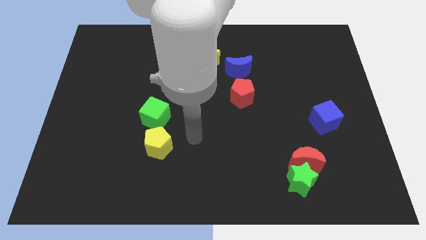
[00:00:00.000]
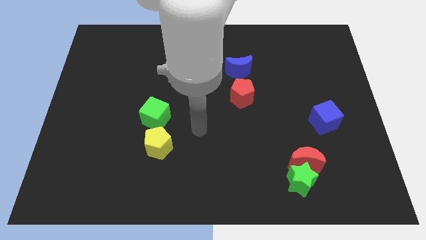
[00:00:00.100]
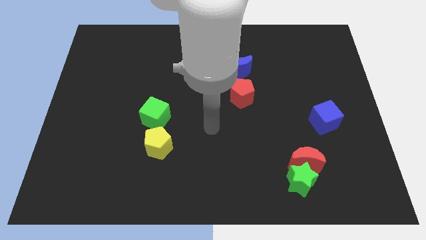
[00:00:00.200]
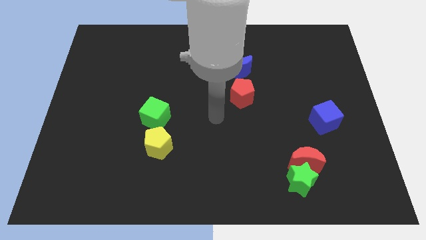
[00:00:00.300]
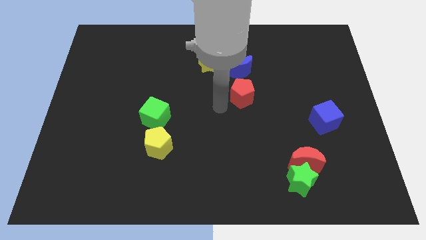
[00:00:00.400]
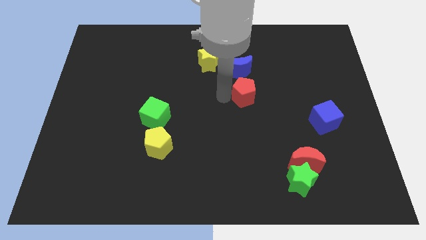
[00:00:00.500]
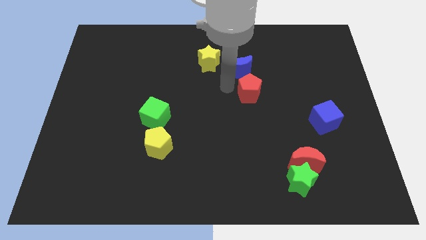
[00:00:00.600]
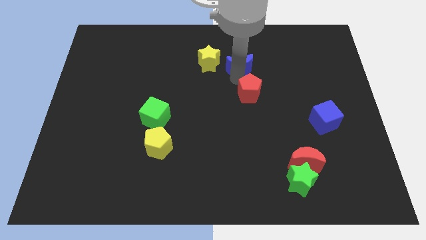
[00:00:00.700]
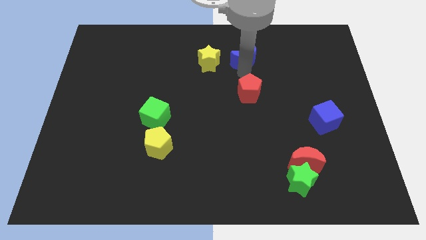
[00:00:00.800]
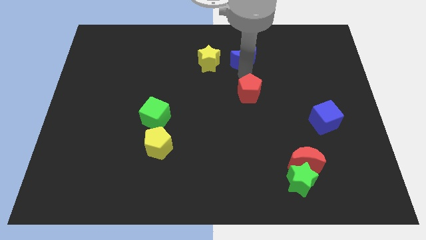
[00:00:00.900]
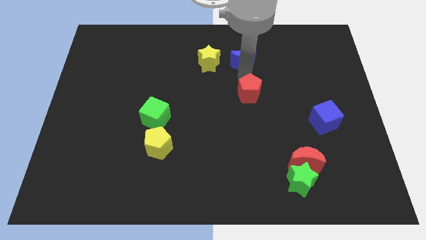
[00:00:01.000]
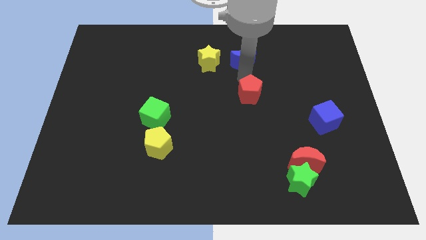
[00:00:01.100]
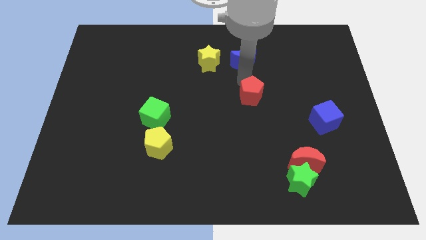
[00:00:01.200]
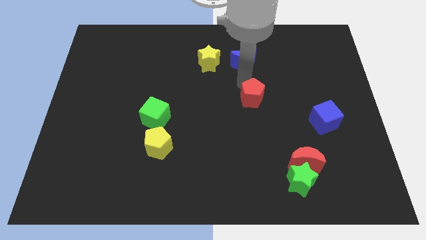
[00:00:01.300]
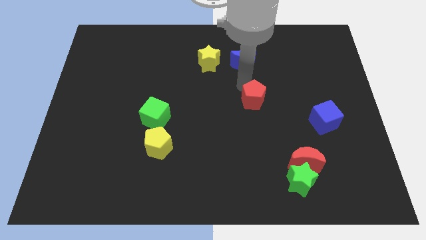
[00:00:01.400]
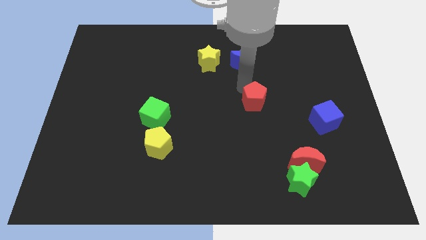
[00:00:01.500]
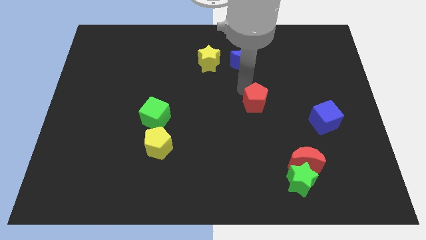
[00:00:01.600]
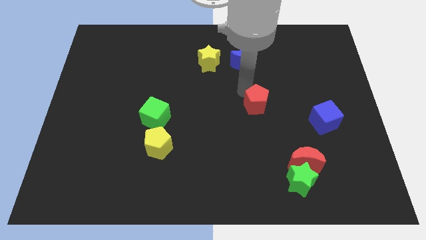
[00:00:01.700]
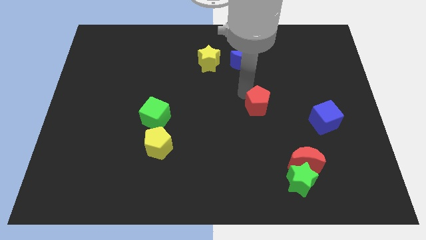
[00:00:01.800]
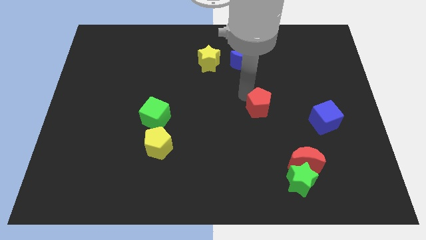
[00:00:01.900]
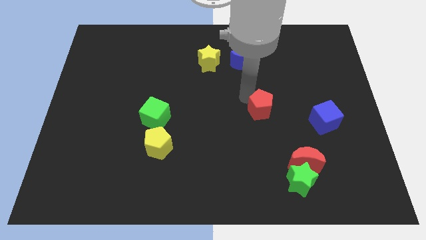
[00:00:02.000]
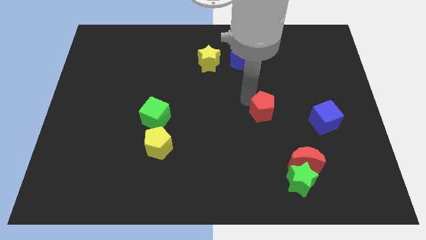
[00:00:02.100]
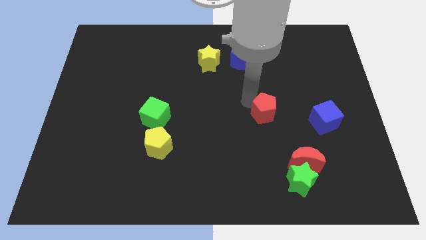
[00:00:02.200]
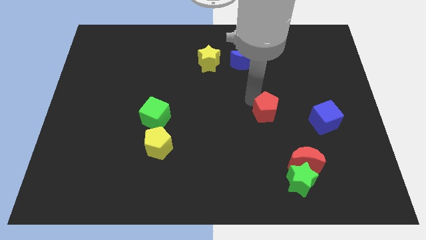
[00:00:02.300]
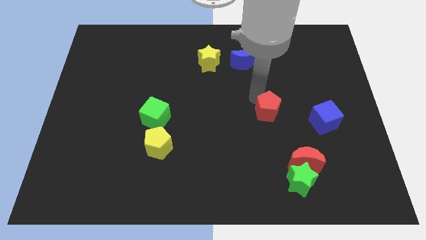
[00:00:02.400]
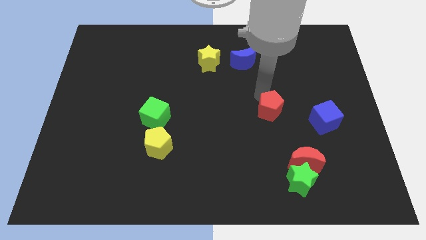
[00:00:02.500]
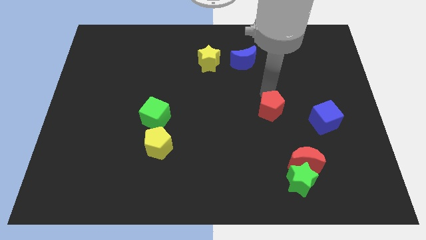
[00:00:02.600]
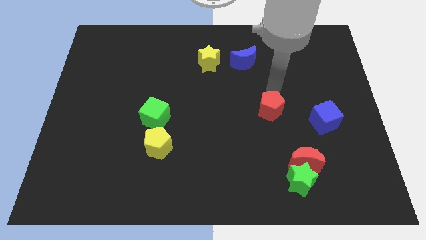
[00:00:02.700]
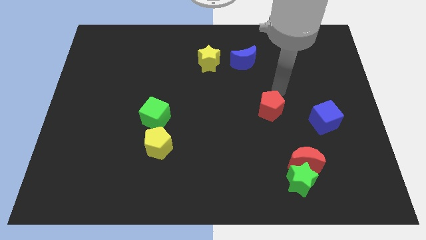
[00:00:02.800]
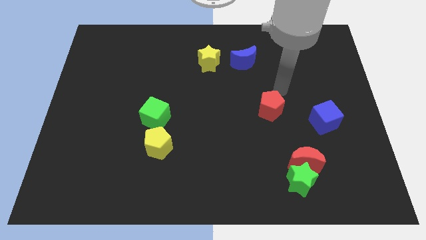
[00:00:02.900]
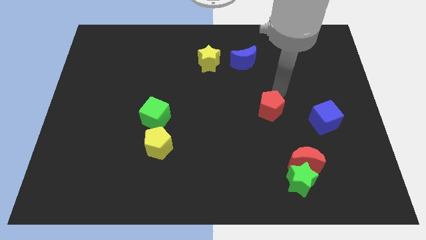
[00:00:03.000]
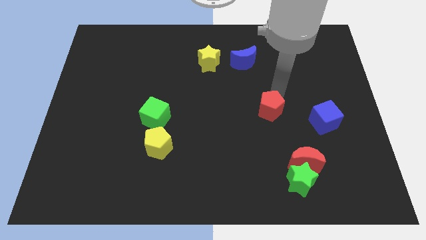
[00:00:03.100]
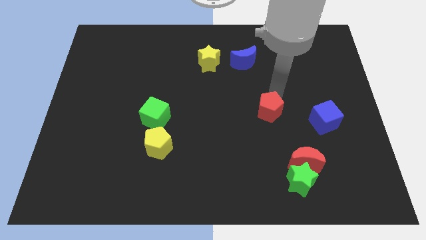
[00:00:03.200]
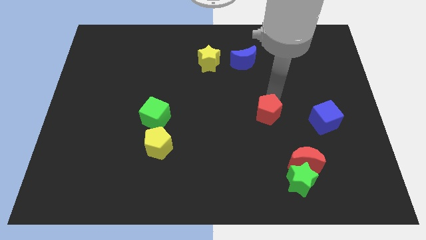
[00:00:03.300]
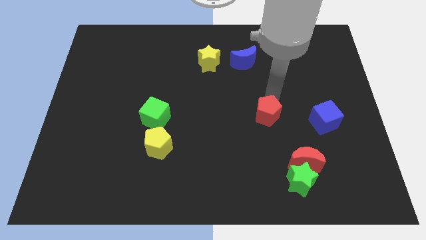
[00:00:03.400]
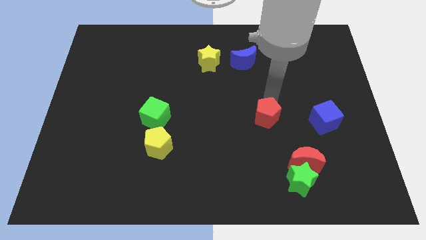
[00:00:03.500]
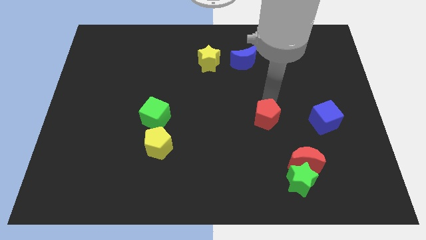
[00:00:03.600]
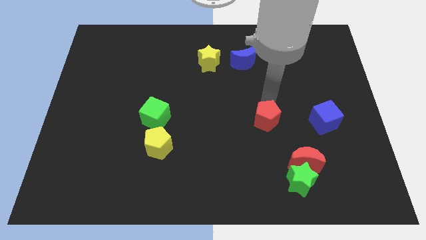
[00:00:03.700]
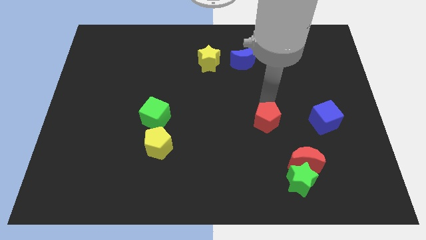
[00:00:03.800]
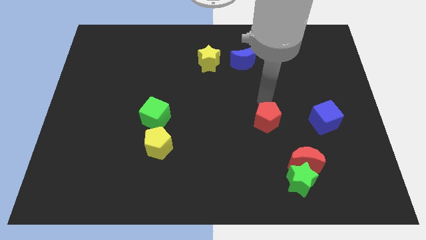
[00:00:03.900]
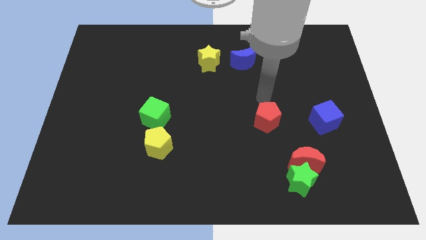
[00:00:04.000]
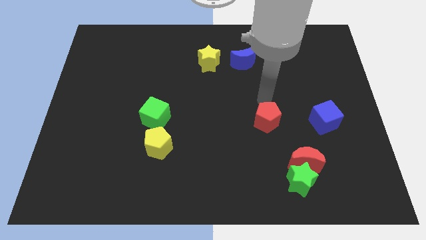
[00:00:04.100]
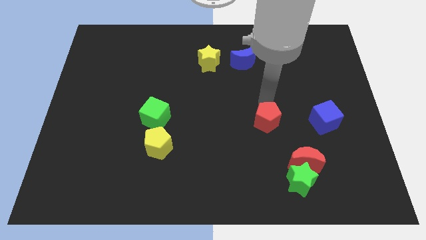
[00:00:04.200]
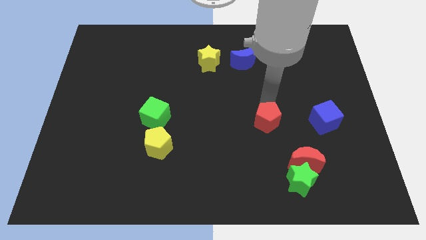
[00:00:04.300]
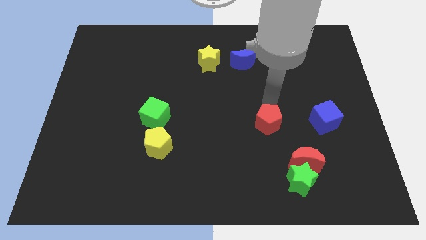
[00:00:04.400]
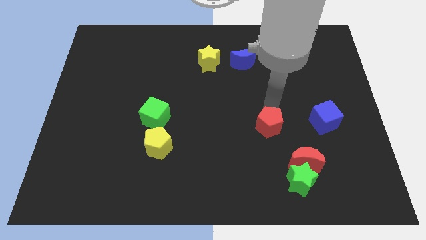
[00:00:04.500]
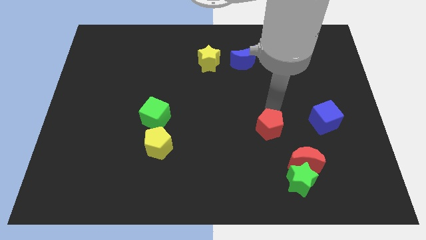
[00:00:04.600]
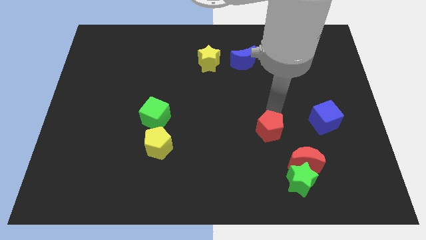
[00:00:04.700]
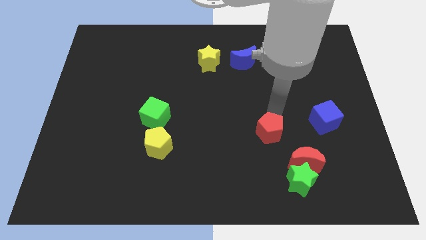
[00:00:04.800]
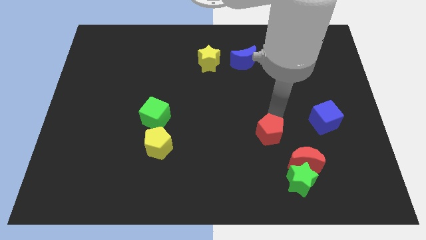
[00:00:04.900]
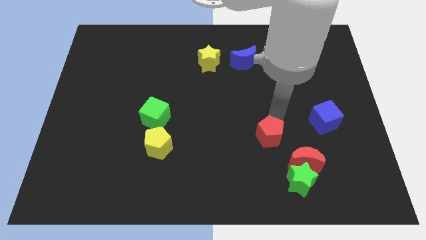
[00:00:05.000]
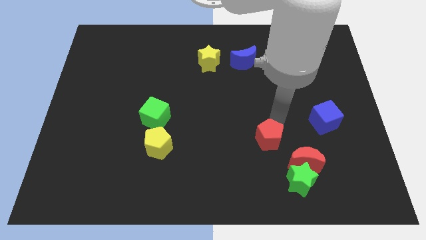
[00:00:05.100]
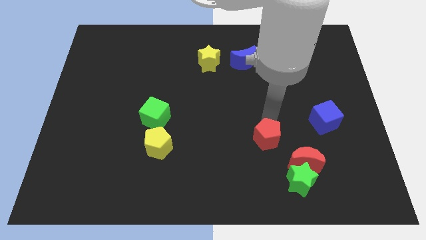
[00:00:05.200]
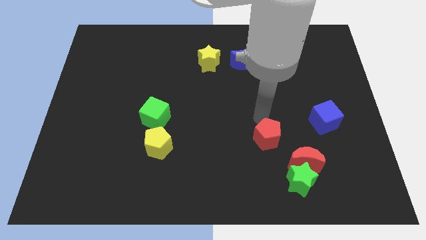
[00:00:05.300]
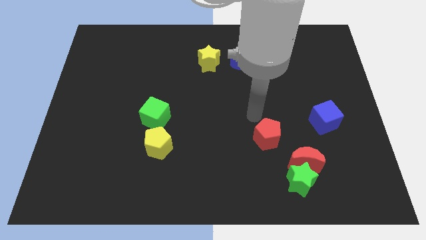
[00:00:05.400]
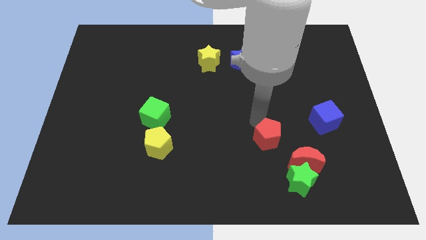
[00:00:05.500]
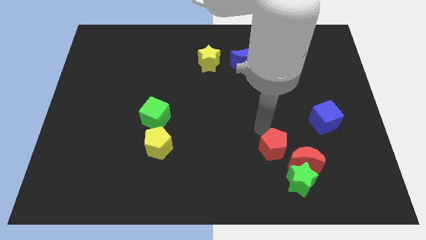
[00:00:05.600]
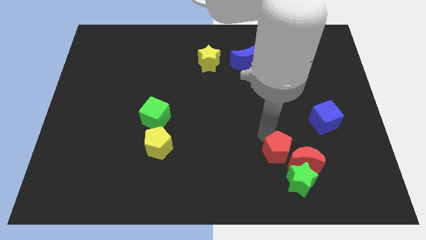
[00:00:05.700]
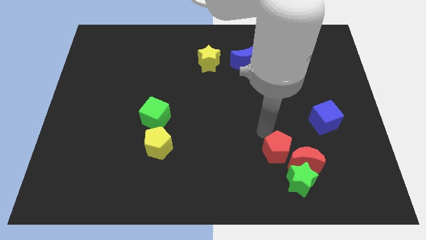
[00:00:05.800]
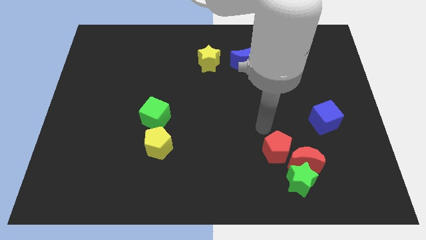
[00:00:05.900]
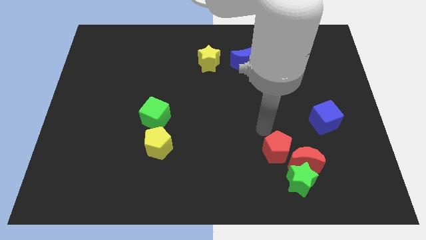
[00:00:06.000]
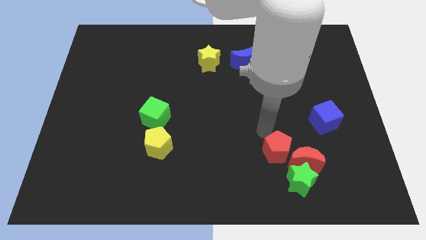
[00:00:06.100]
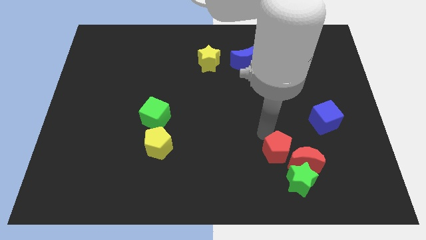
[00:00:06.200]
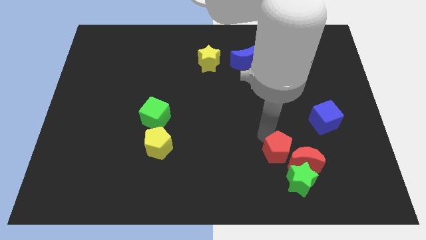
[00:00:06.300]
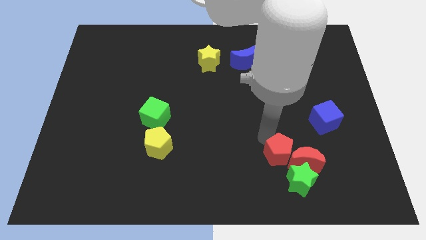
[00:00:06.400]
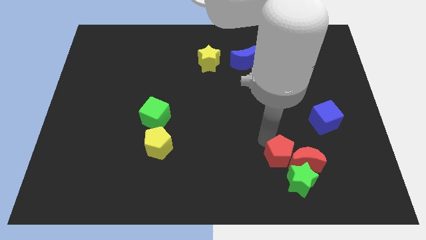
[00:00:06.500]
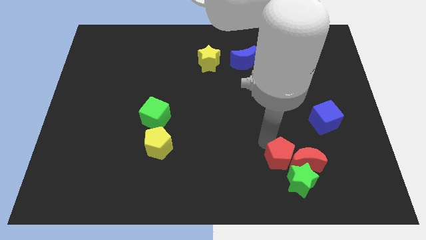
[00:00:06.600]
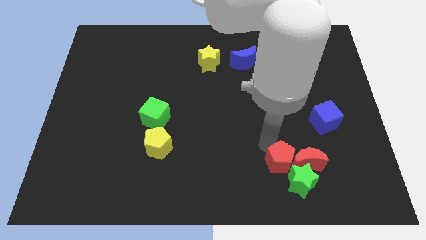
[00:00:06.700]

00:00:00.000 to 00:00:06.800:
push the red pentagon towards the green star

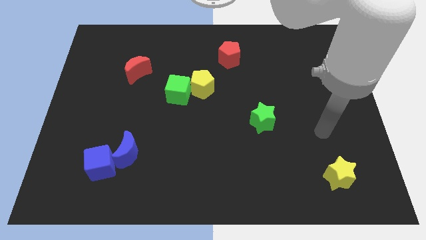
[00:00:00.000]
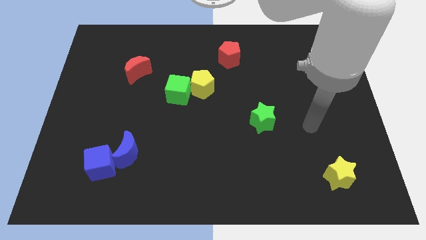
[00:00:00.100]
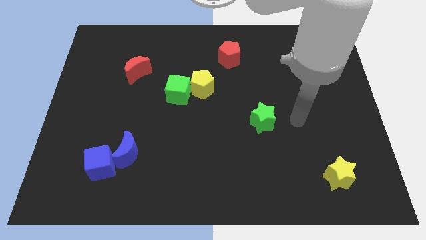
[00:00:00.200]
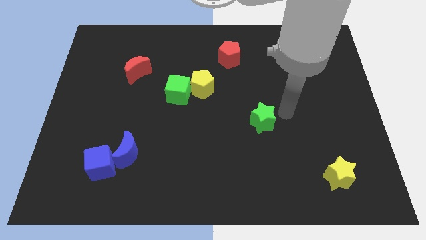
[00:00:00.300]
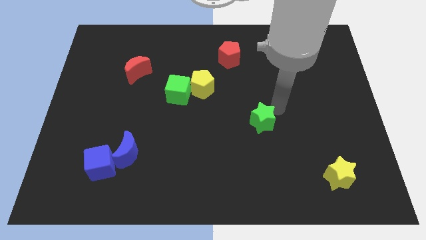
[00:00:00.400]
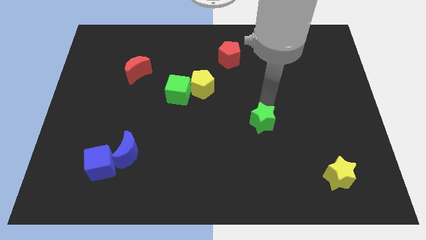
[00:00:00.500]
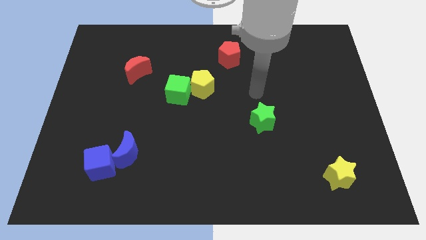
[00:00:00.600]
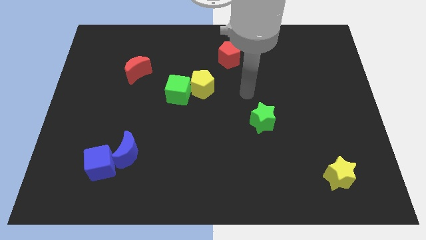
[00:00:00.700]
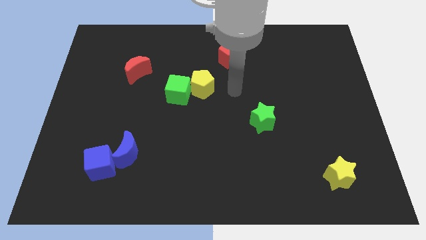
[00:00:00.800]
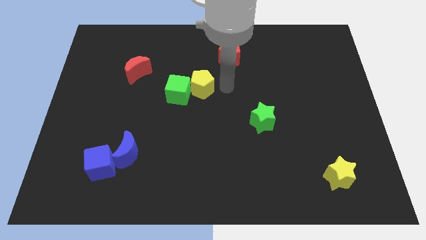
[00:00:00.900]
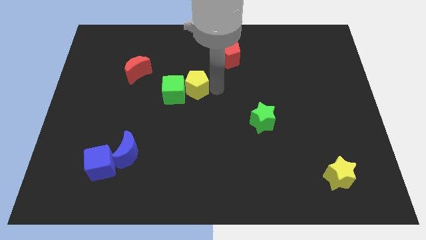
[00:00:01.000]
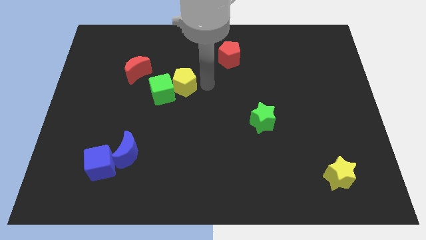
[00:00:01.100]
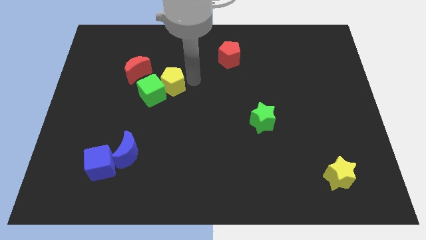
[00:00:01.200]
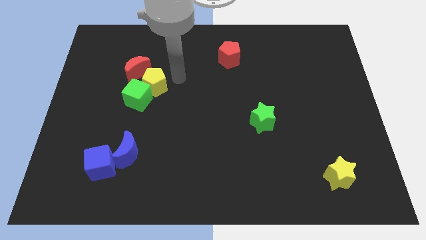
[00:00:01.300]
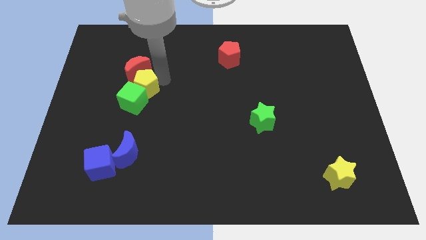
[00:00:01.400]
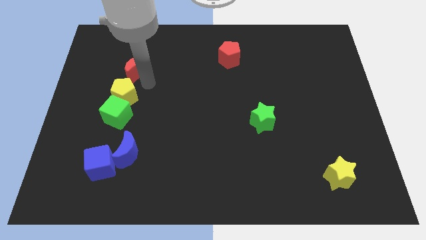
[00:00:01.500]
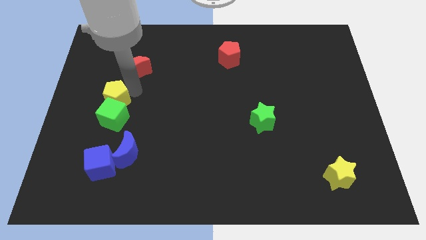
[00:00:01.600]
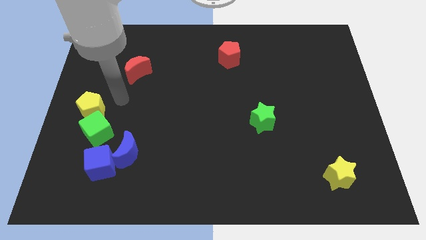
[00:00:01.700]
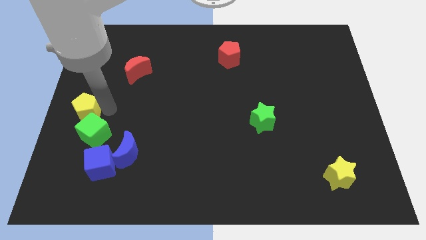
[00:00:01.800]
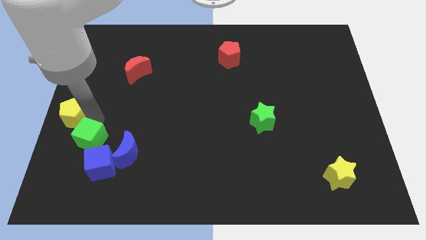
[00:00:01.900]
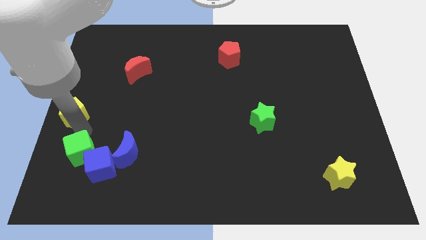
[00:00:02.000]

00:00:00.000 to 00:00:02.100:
slide the green cube towards the blue cube
